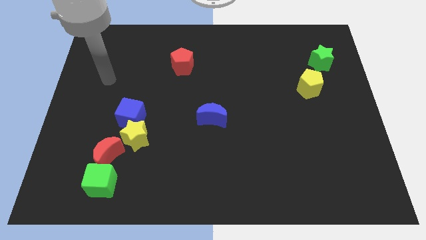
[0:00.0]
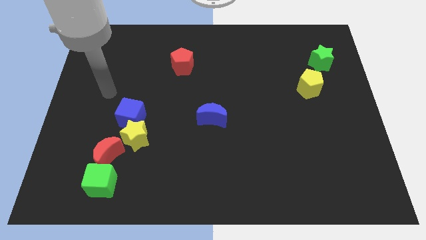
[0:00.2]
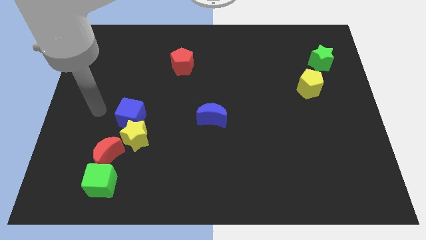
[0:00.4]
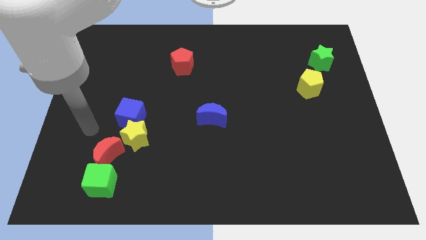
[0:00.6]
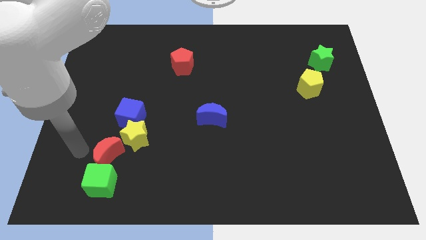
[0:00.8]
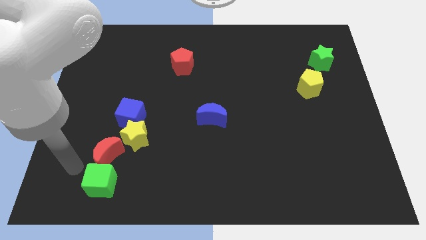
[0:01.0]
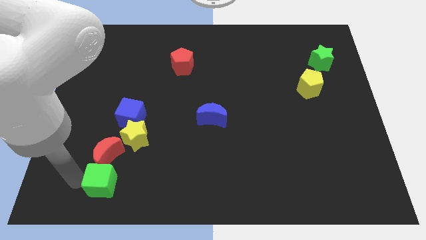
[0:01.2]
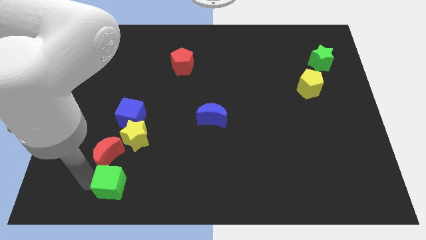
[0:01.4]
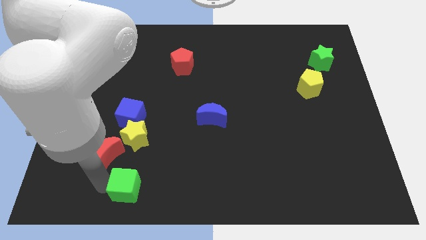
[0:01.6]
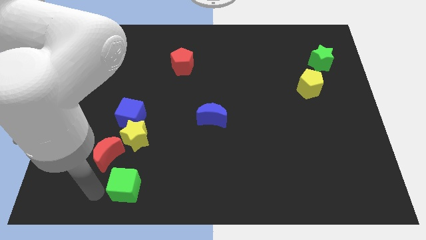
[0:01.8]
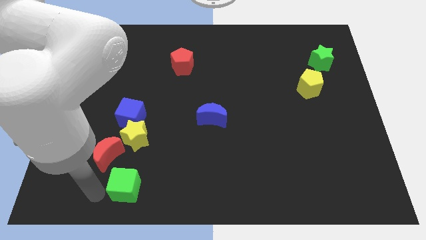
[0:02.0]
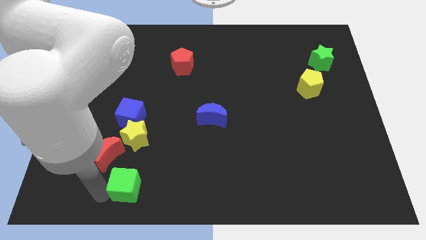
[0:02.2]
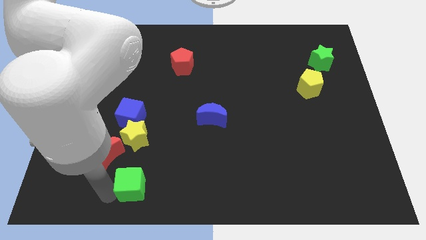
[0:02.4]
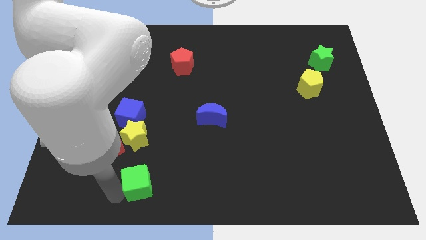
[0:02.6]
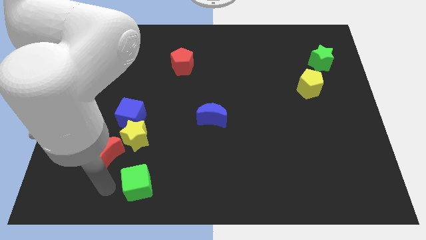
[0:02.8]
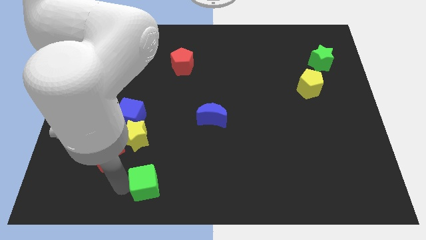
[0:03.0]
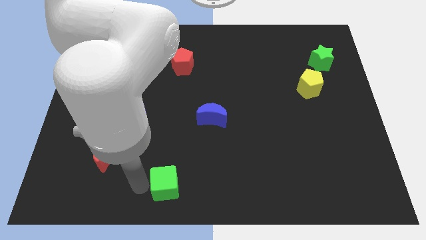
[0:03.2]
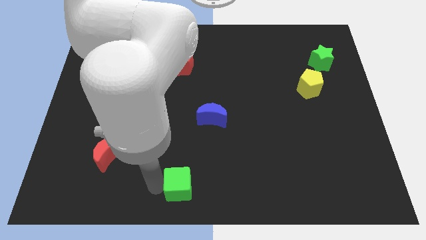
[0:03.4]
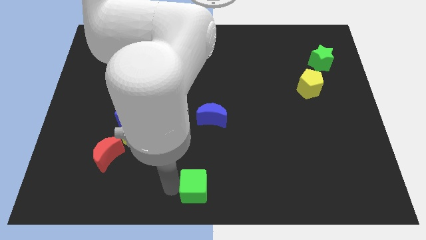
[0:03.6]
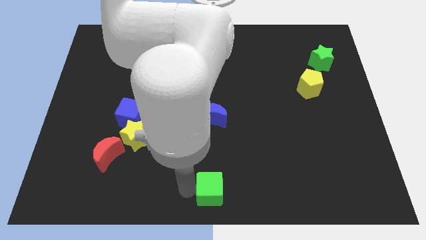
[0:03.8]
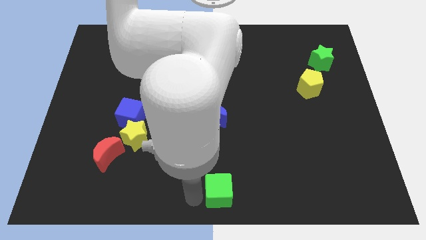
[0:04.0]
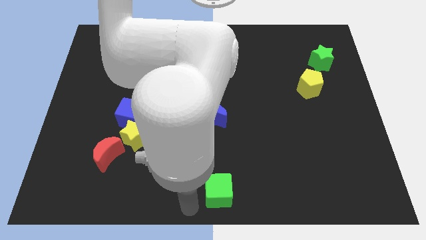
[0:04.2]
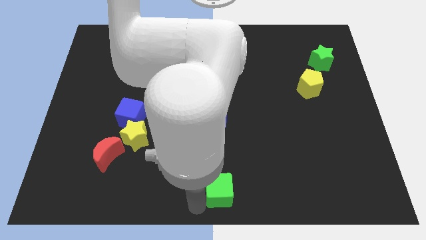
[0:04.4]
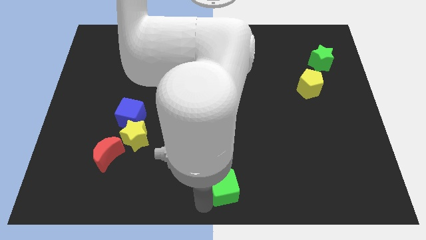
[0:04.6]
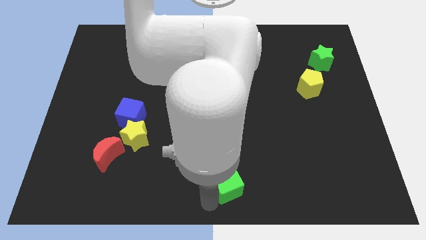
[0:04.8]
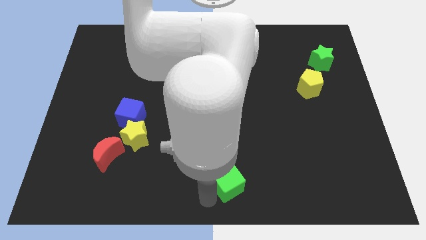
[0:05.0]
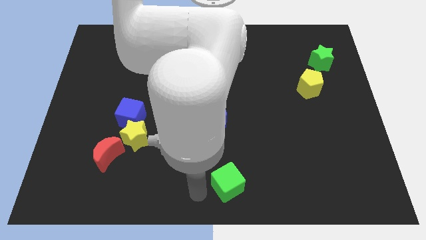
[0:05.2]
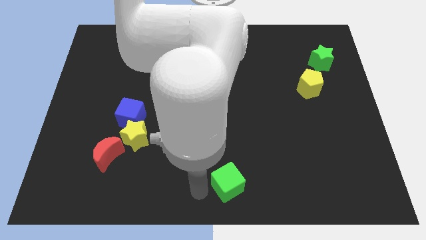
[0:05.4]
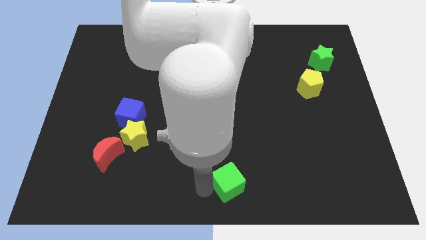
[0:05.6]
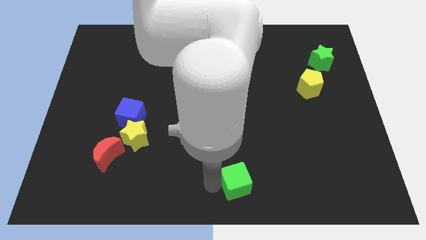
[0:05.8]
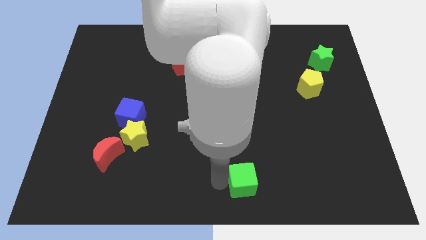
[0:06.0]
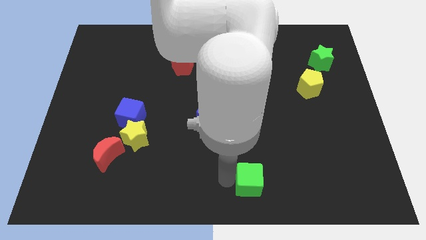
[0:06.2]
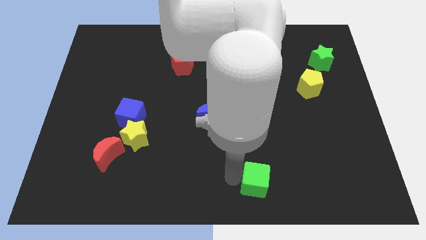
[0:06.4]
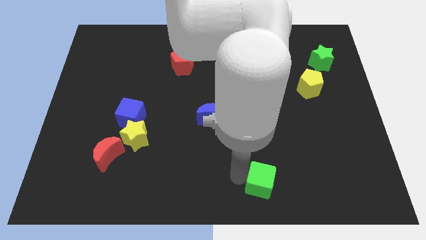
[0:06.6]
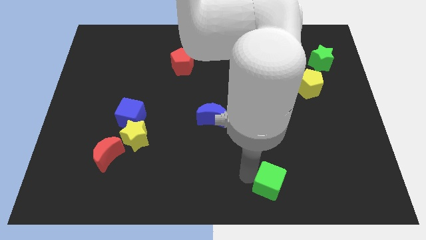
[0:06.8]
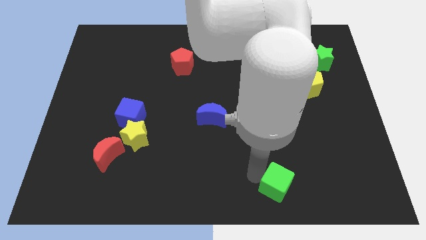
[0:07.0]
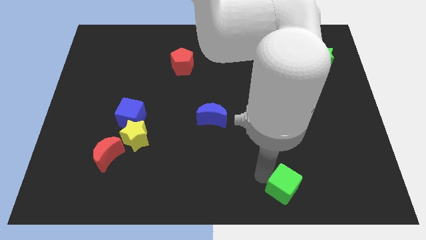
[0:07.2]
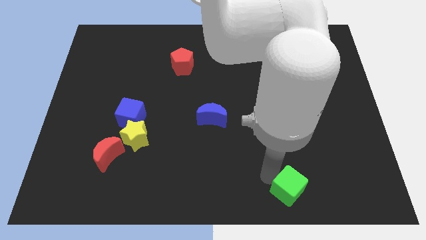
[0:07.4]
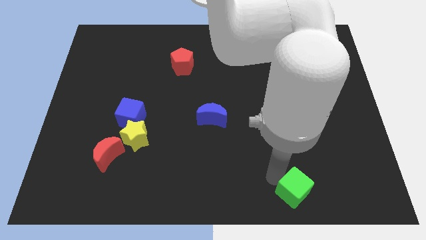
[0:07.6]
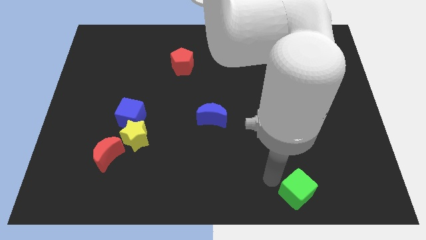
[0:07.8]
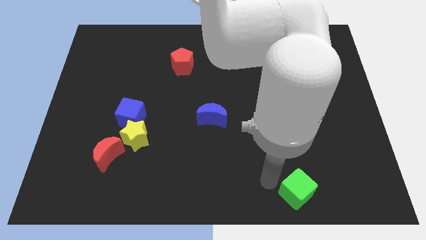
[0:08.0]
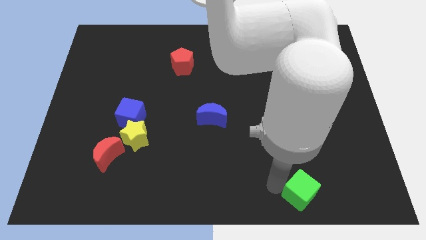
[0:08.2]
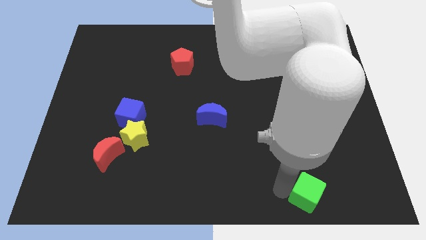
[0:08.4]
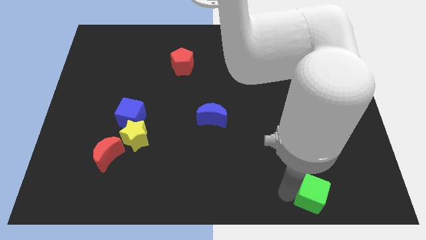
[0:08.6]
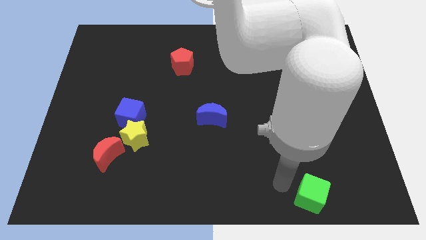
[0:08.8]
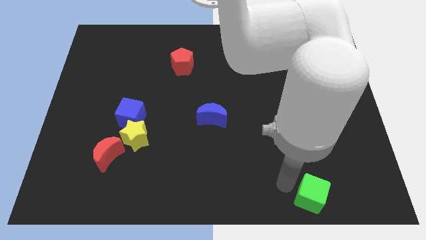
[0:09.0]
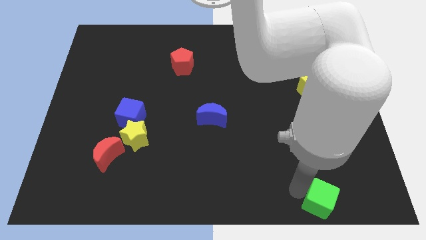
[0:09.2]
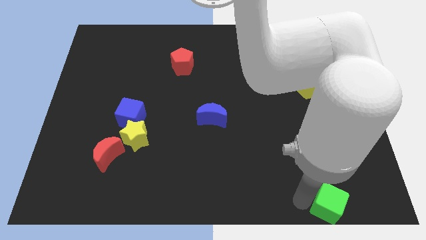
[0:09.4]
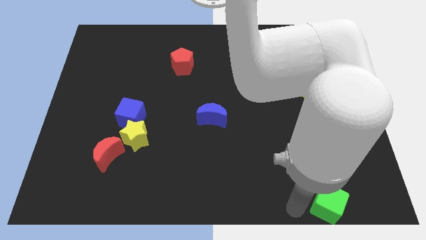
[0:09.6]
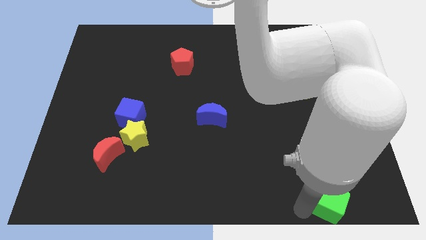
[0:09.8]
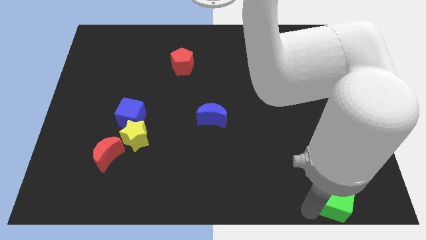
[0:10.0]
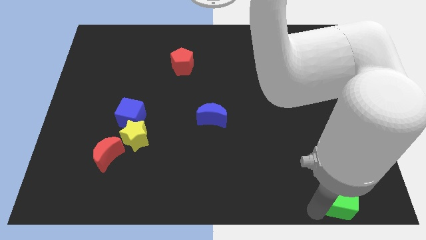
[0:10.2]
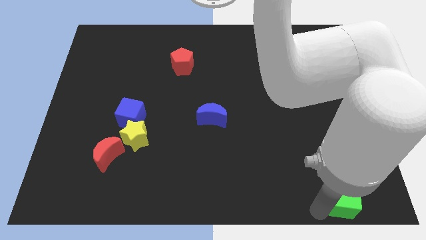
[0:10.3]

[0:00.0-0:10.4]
push the green cube to the bottom right corner

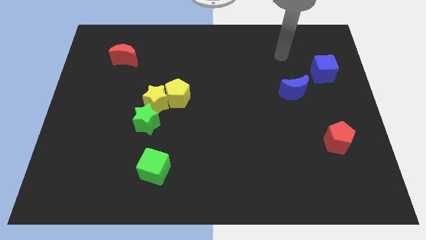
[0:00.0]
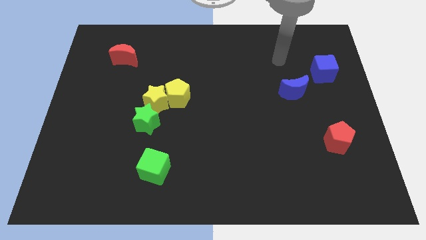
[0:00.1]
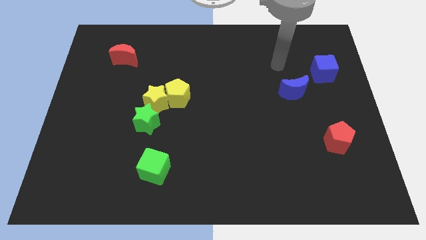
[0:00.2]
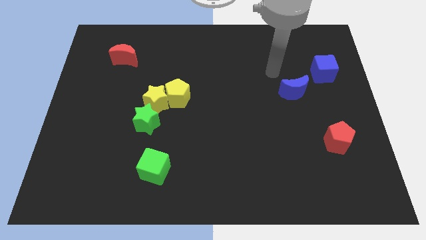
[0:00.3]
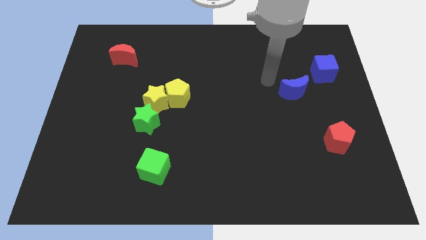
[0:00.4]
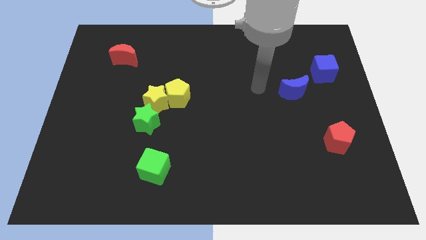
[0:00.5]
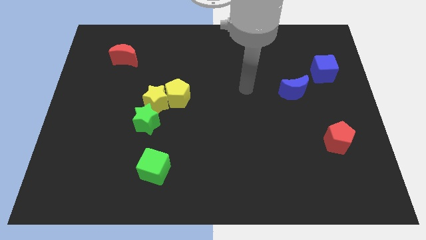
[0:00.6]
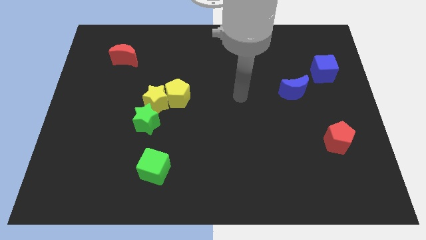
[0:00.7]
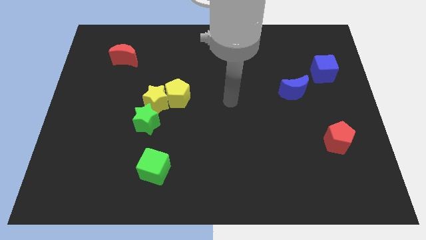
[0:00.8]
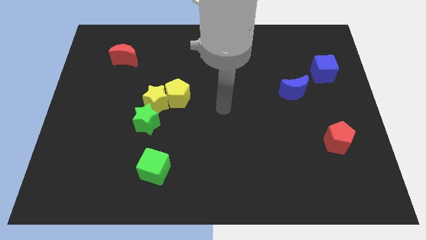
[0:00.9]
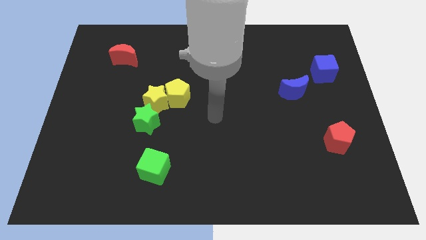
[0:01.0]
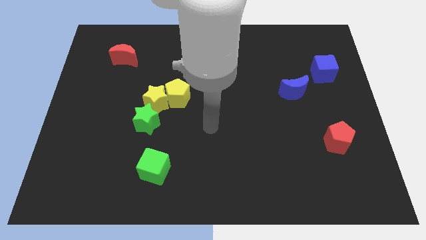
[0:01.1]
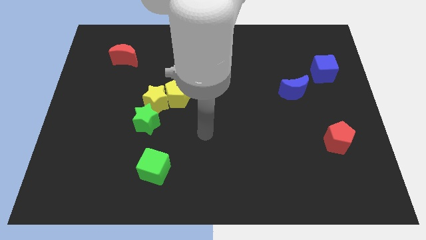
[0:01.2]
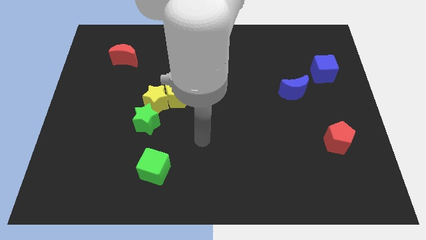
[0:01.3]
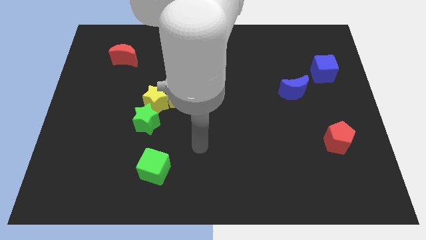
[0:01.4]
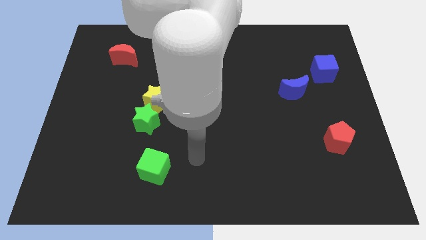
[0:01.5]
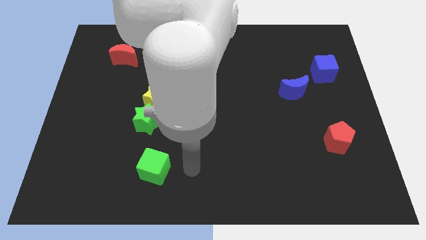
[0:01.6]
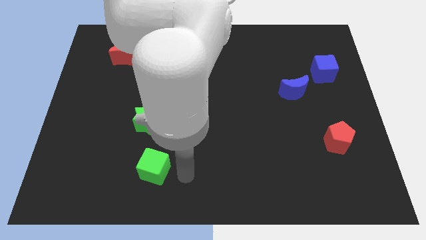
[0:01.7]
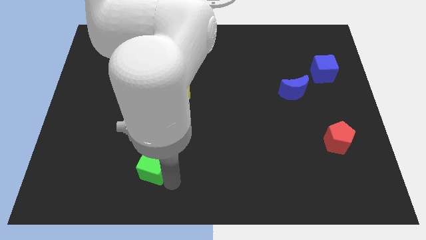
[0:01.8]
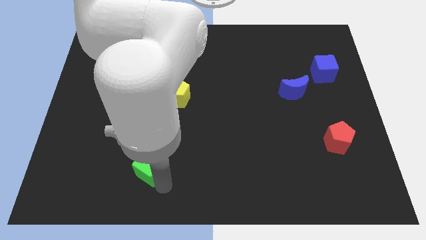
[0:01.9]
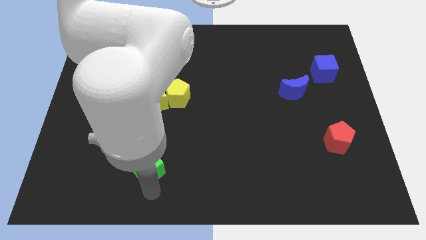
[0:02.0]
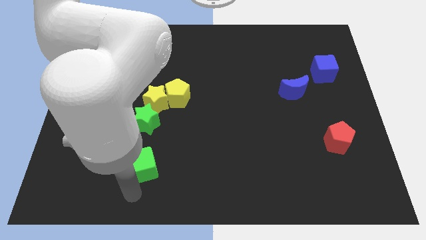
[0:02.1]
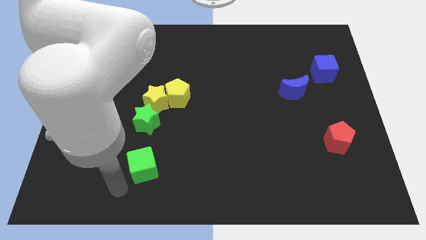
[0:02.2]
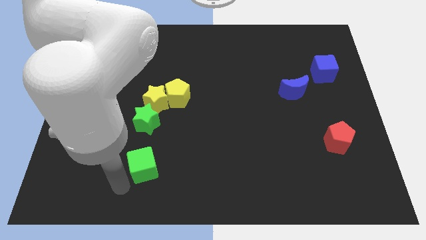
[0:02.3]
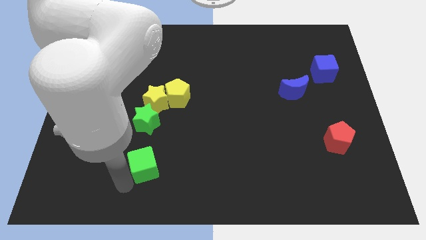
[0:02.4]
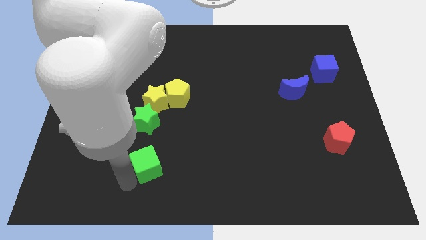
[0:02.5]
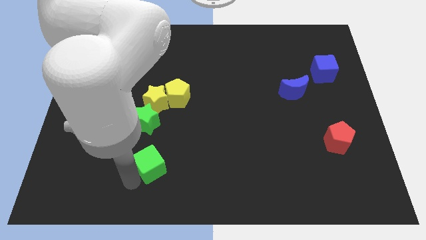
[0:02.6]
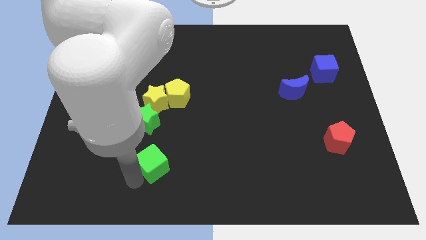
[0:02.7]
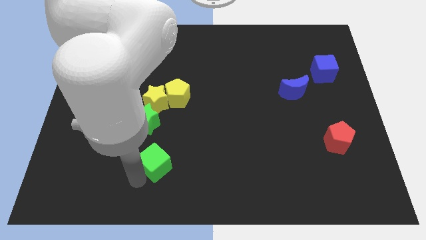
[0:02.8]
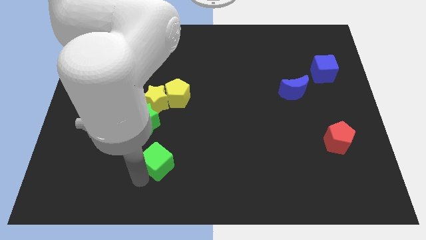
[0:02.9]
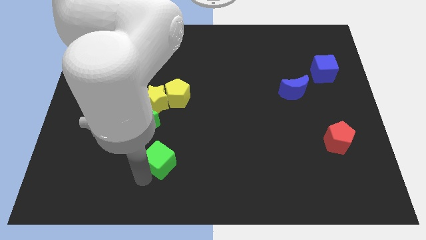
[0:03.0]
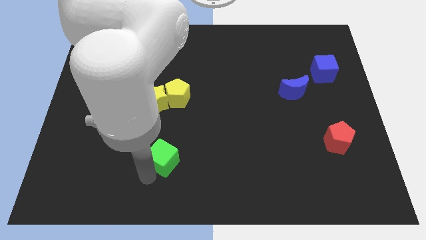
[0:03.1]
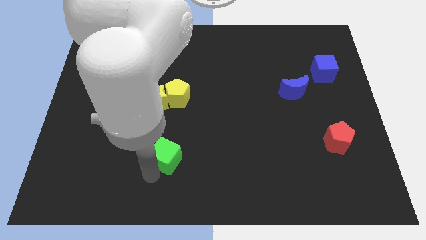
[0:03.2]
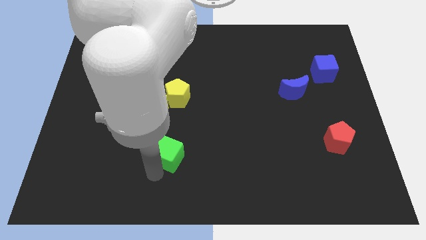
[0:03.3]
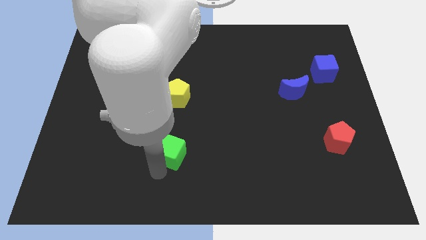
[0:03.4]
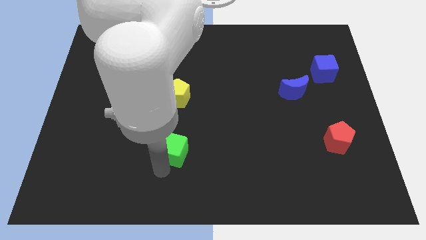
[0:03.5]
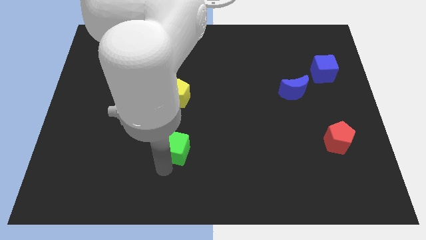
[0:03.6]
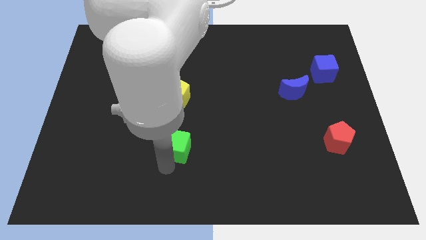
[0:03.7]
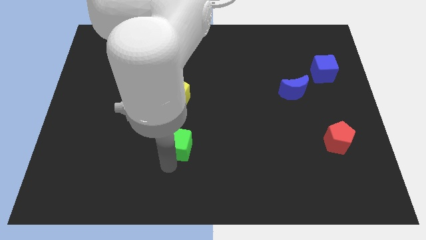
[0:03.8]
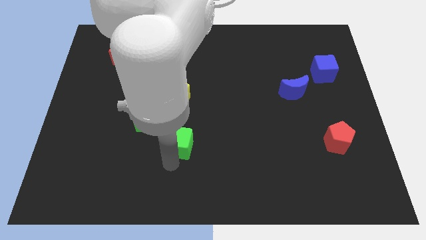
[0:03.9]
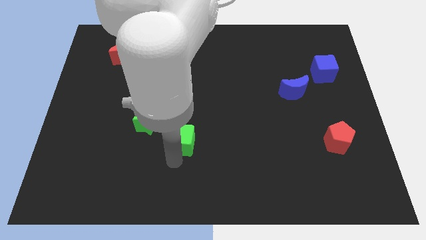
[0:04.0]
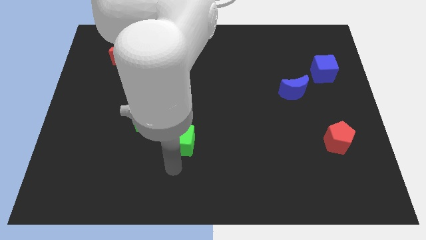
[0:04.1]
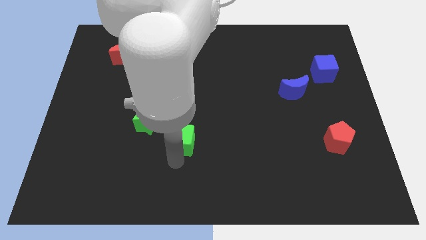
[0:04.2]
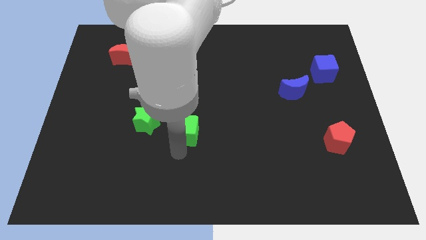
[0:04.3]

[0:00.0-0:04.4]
put the green cube to the middle
